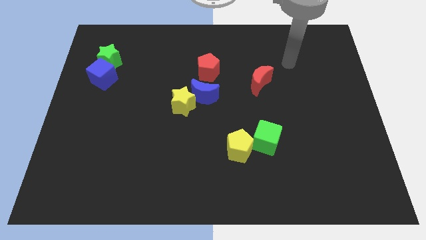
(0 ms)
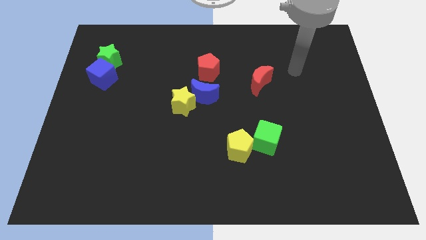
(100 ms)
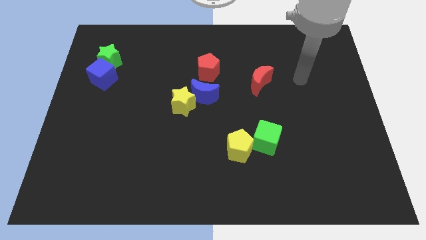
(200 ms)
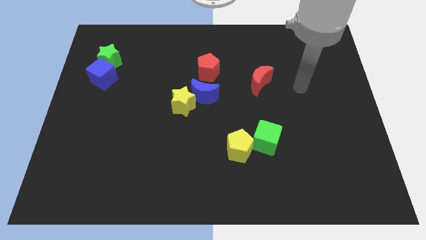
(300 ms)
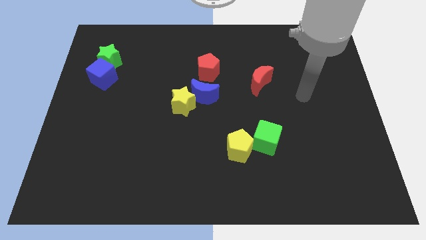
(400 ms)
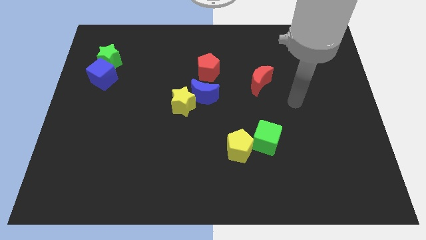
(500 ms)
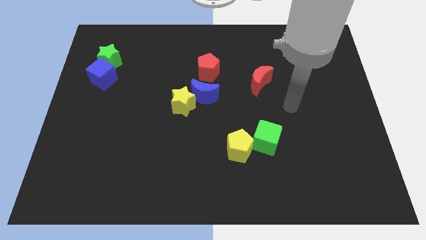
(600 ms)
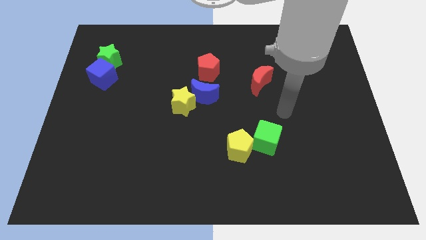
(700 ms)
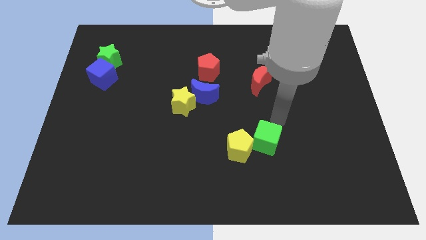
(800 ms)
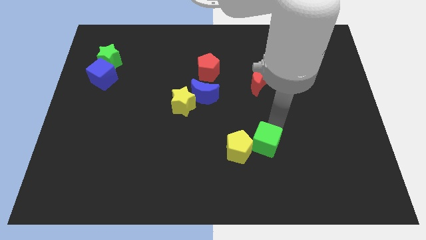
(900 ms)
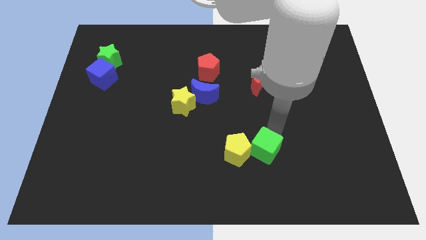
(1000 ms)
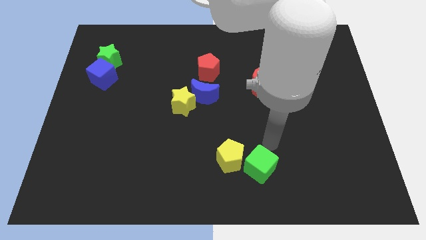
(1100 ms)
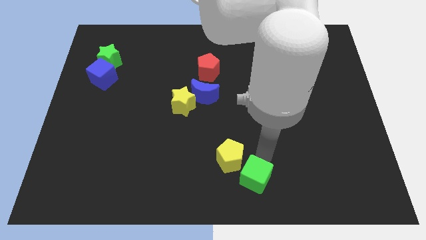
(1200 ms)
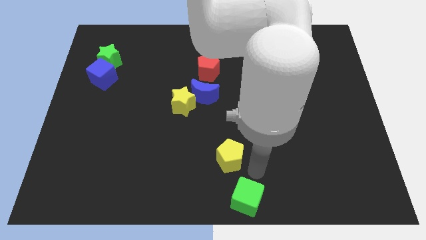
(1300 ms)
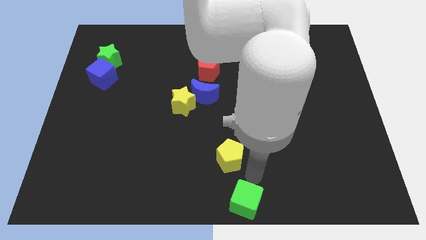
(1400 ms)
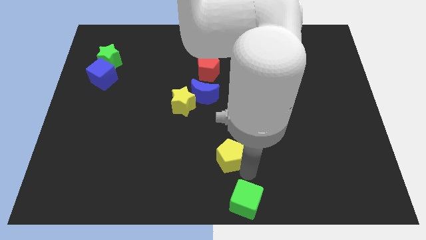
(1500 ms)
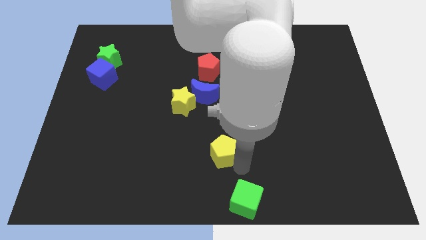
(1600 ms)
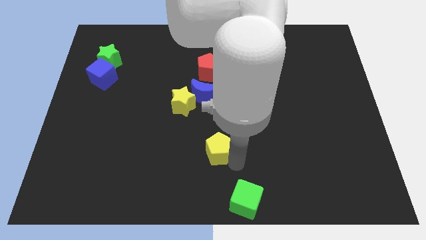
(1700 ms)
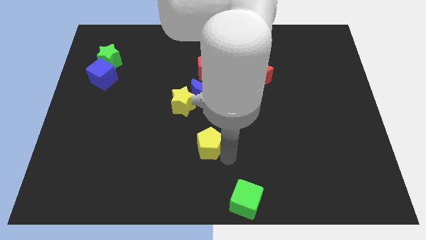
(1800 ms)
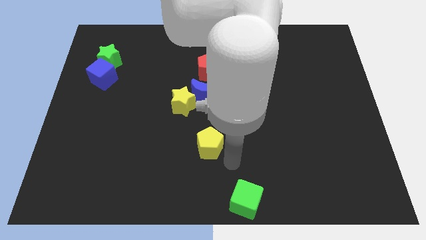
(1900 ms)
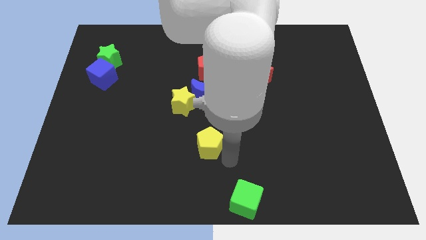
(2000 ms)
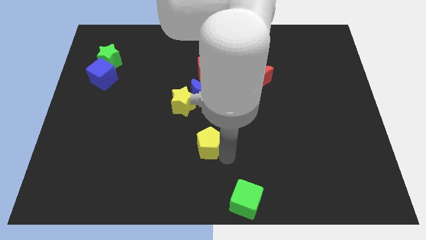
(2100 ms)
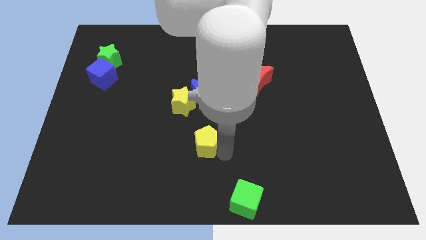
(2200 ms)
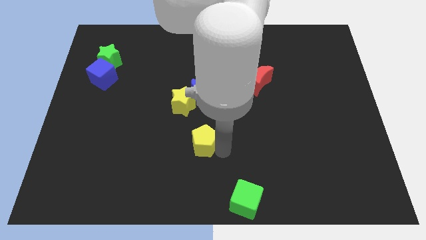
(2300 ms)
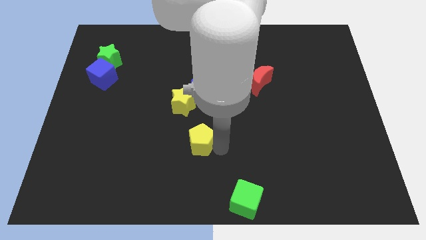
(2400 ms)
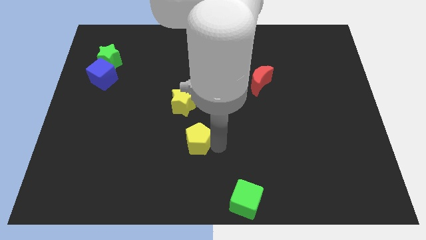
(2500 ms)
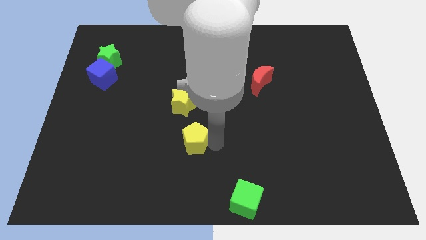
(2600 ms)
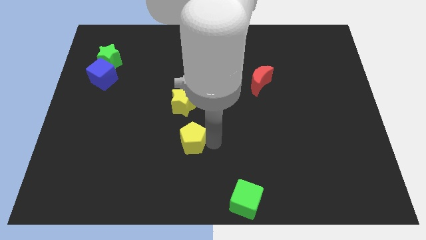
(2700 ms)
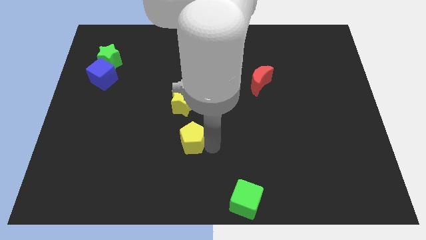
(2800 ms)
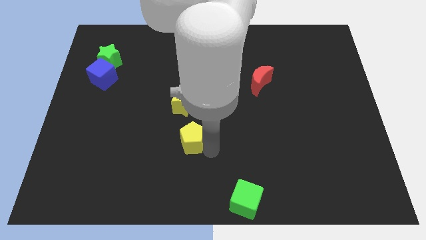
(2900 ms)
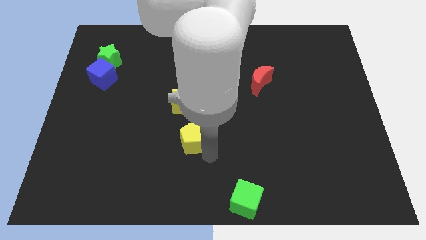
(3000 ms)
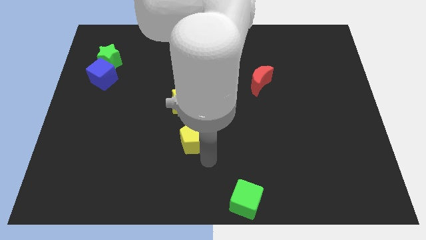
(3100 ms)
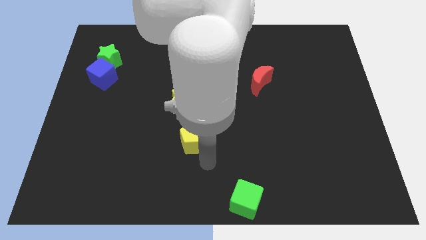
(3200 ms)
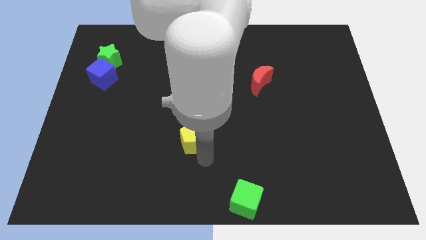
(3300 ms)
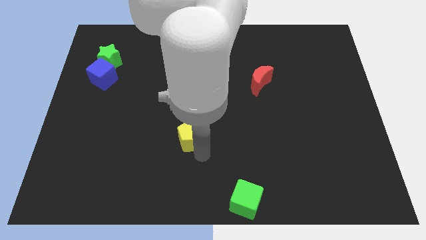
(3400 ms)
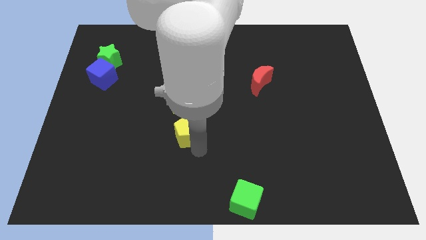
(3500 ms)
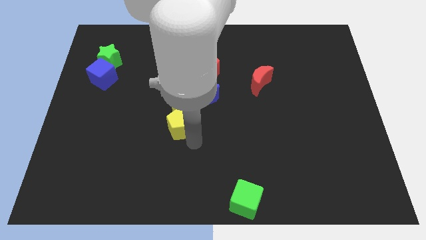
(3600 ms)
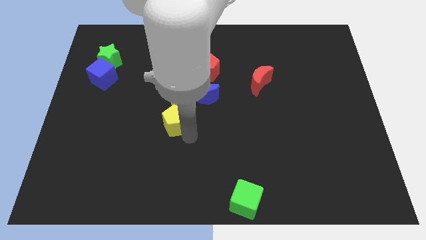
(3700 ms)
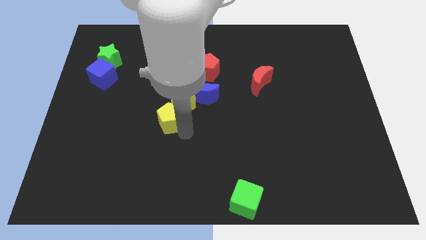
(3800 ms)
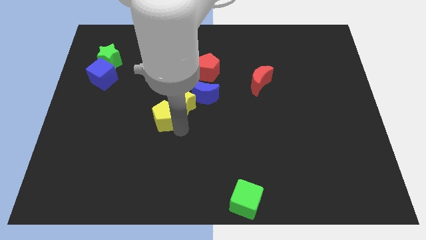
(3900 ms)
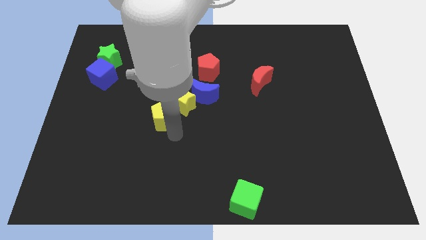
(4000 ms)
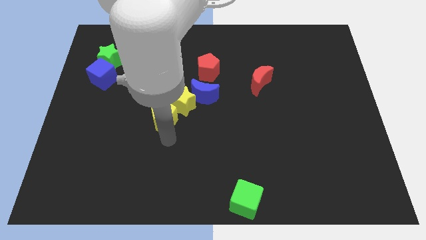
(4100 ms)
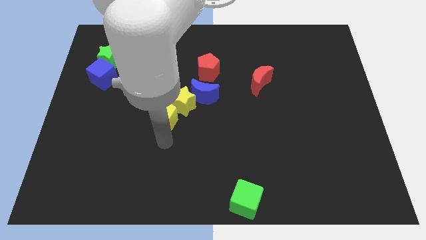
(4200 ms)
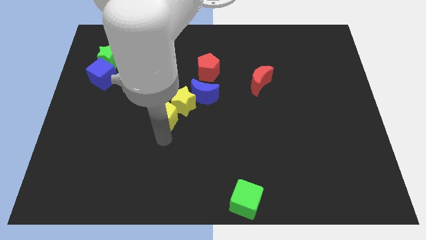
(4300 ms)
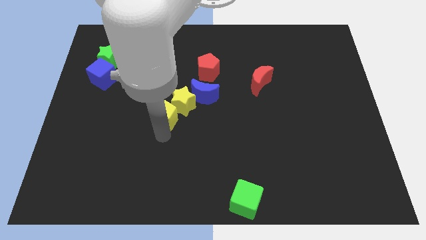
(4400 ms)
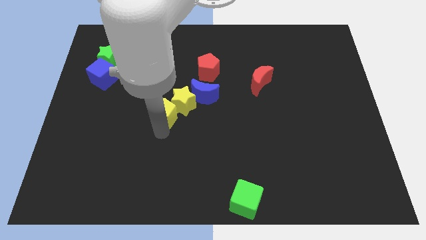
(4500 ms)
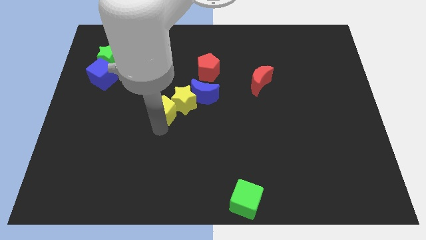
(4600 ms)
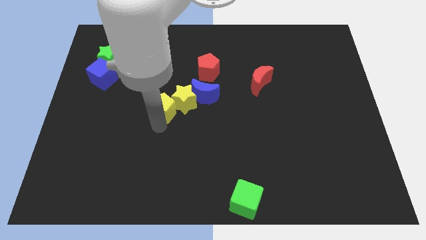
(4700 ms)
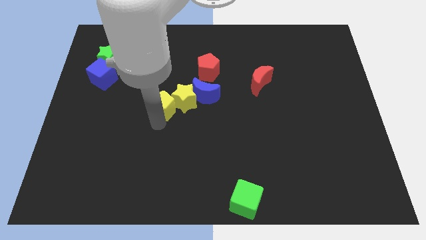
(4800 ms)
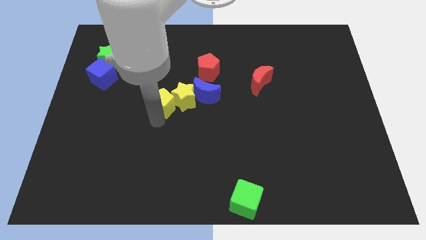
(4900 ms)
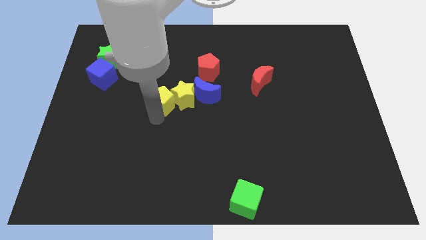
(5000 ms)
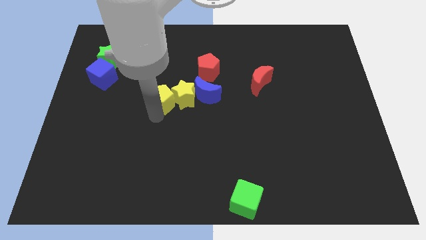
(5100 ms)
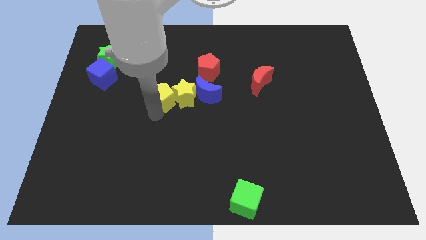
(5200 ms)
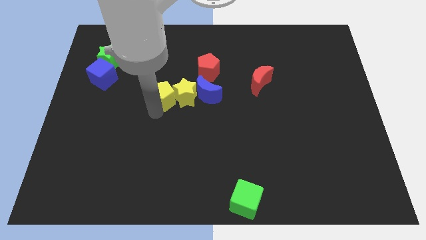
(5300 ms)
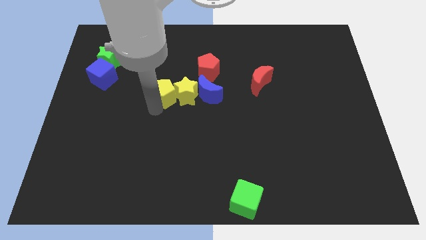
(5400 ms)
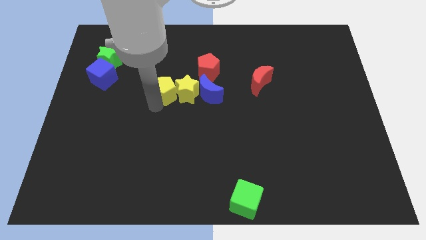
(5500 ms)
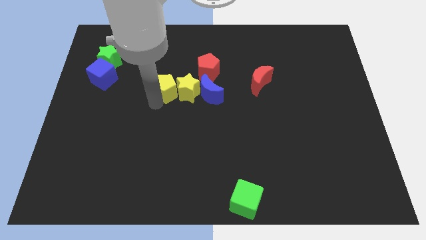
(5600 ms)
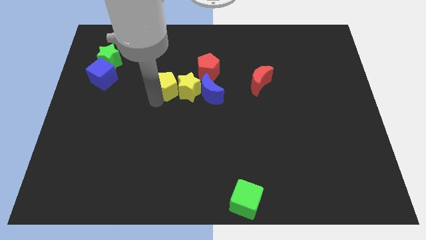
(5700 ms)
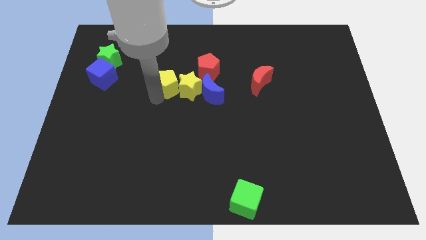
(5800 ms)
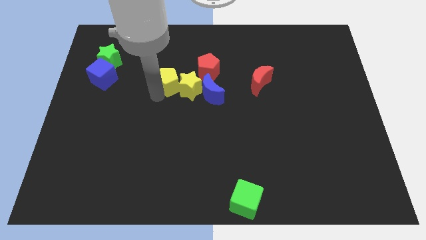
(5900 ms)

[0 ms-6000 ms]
move the yellow pentagon to the left side of the red pentagon

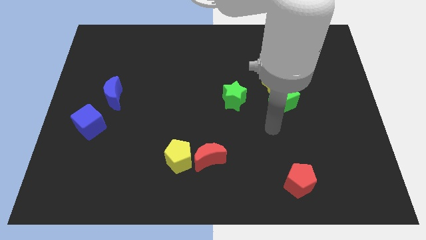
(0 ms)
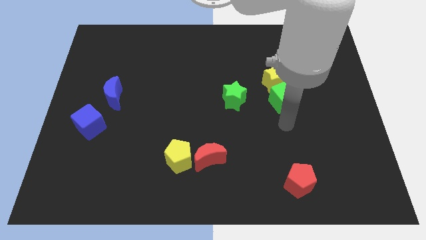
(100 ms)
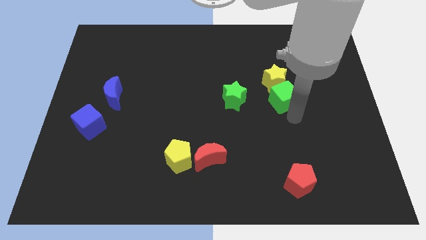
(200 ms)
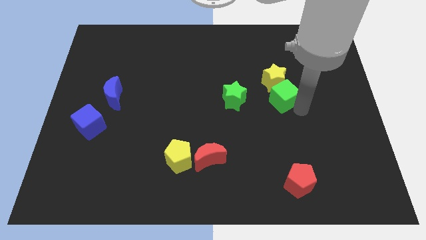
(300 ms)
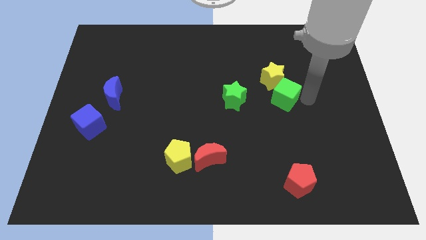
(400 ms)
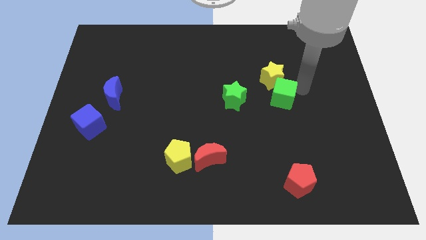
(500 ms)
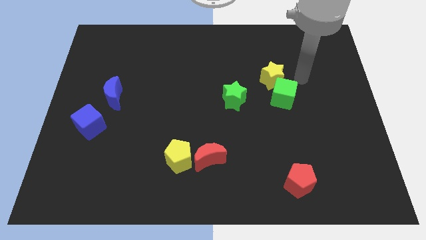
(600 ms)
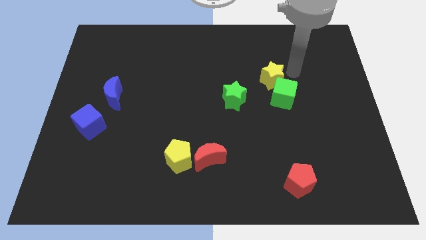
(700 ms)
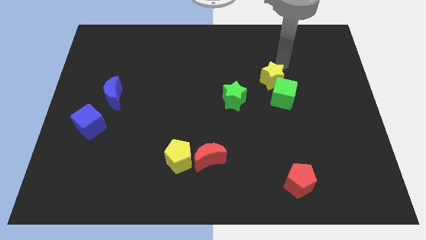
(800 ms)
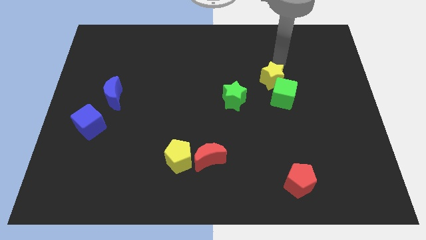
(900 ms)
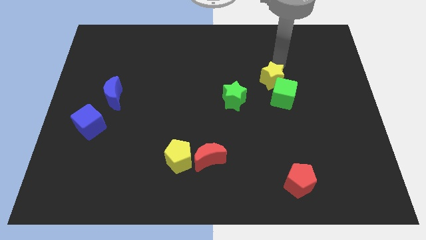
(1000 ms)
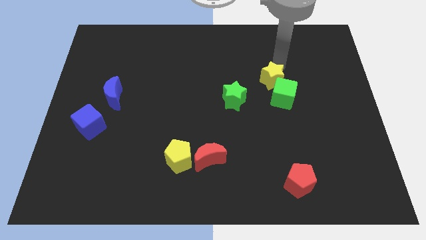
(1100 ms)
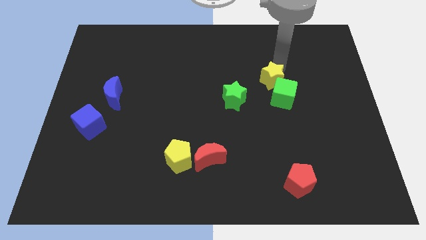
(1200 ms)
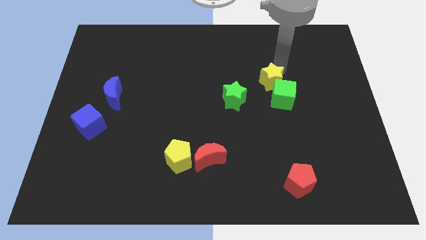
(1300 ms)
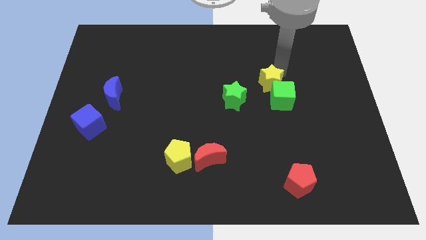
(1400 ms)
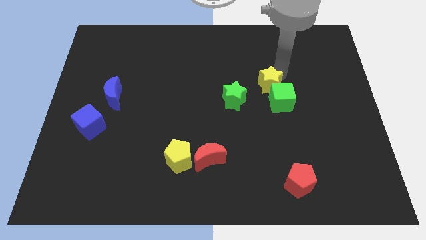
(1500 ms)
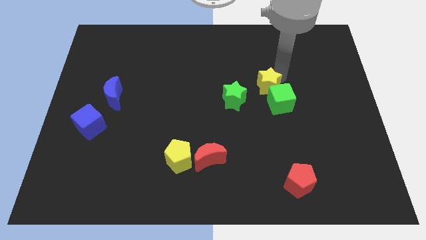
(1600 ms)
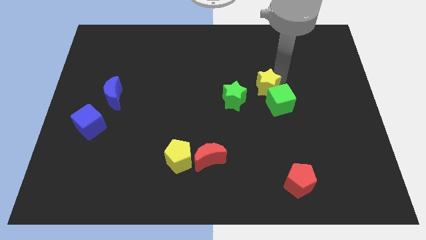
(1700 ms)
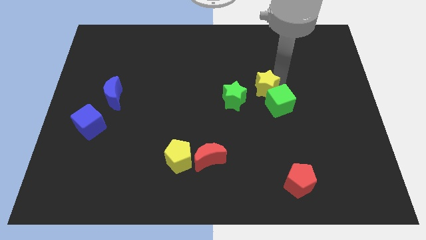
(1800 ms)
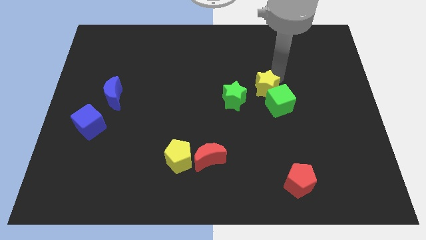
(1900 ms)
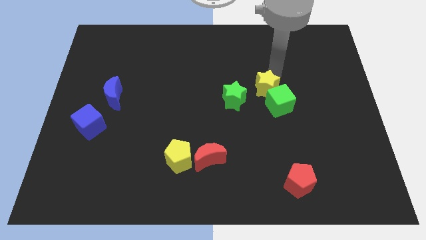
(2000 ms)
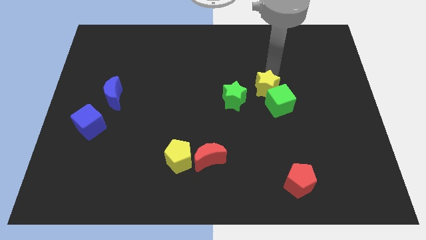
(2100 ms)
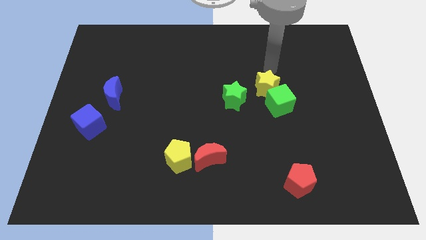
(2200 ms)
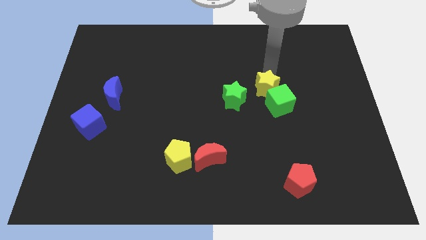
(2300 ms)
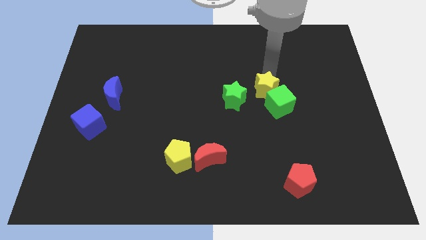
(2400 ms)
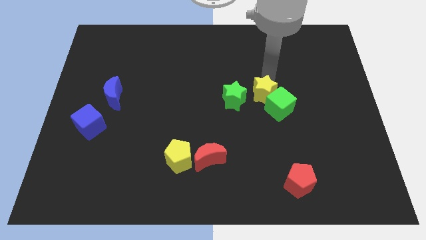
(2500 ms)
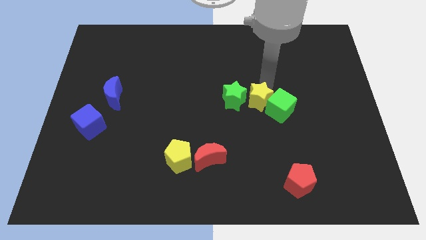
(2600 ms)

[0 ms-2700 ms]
slide the yellow star diagonally down and to the right of the green star
